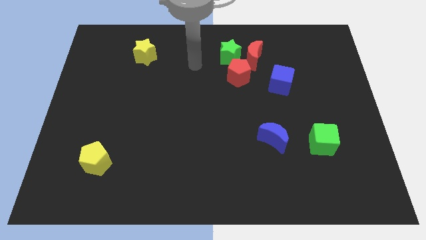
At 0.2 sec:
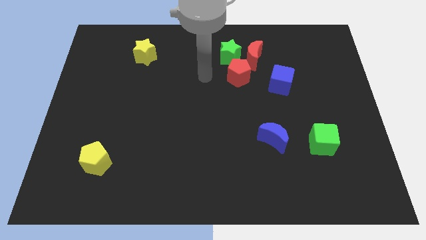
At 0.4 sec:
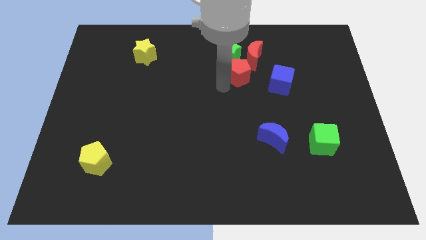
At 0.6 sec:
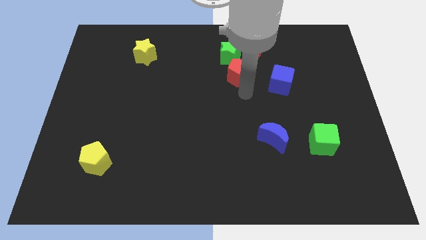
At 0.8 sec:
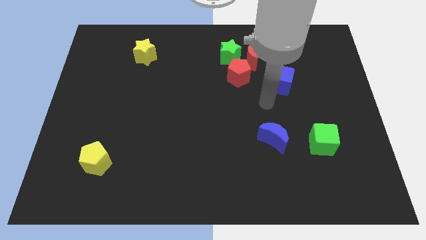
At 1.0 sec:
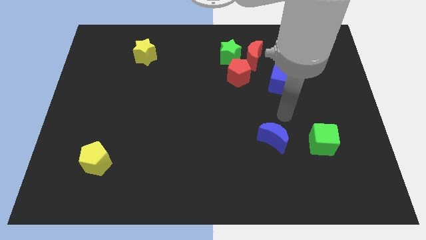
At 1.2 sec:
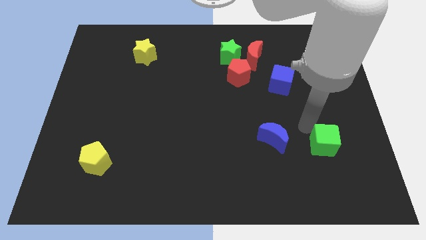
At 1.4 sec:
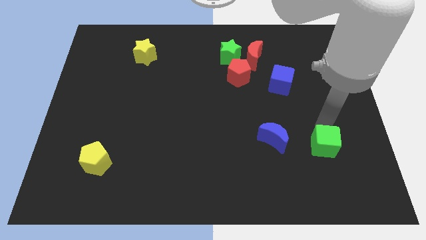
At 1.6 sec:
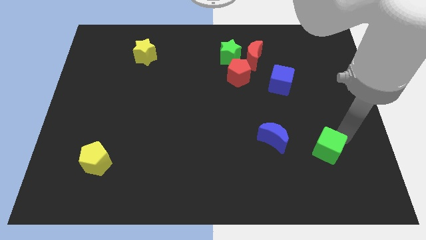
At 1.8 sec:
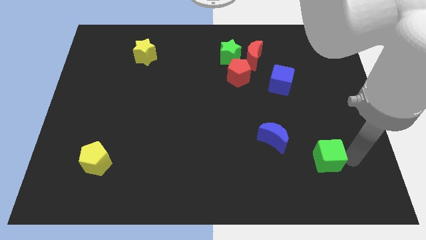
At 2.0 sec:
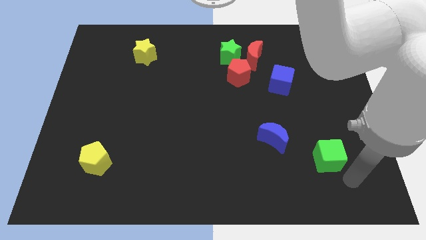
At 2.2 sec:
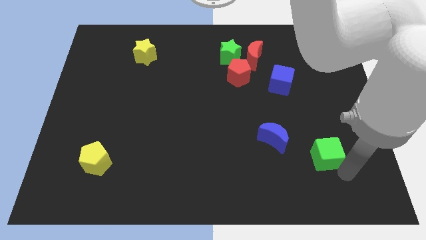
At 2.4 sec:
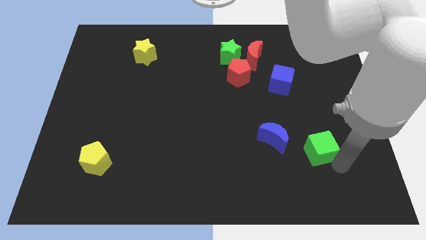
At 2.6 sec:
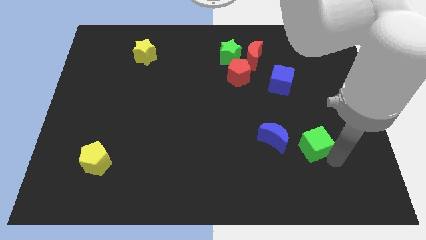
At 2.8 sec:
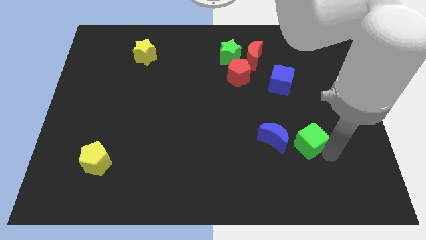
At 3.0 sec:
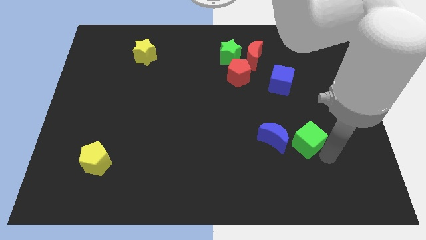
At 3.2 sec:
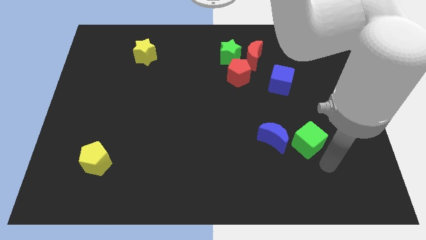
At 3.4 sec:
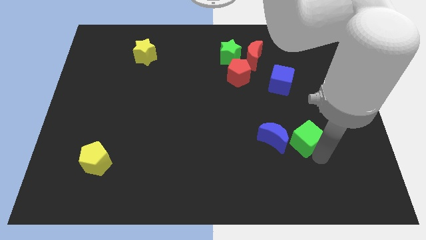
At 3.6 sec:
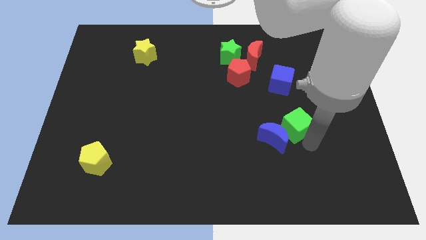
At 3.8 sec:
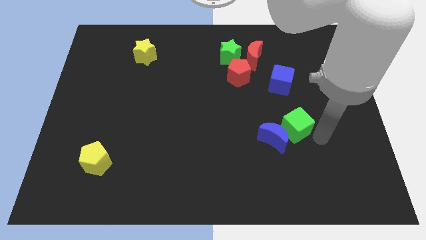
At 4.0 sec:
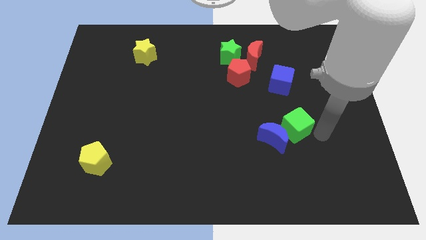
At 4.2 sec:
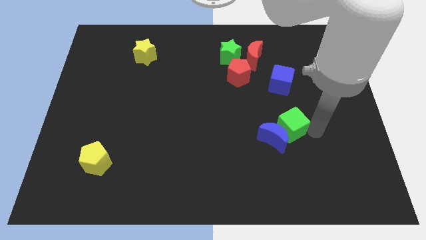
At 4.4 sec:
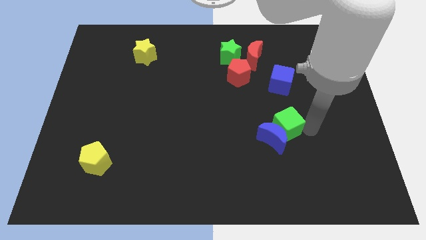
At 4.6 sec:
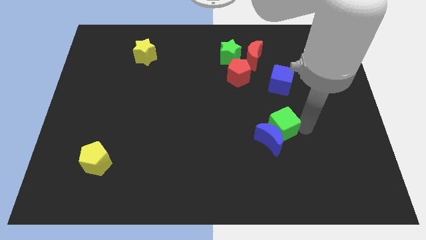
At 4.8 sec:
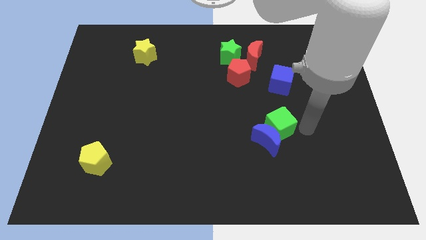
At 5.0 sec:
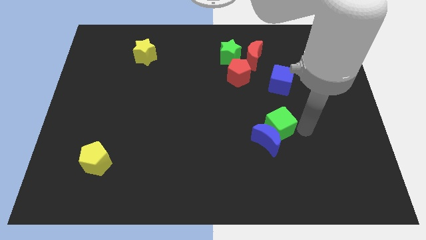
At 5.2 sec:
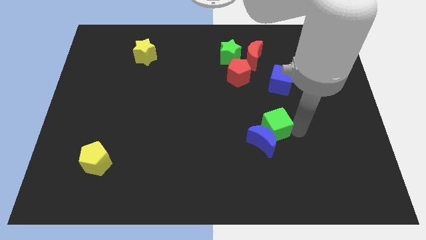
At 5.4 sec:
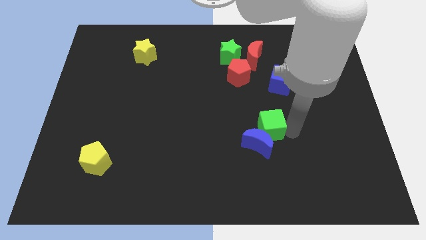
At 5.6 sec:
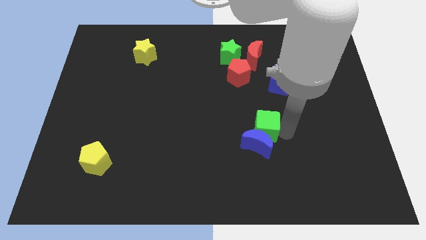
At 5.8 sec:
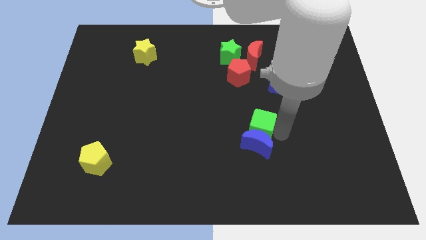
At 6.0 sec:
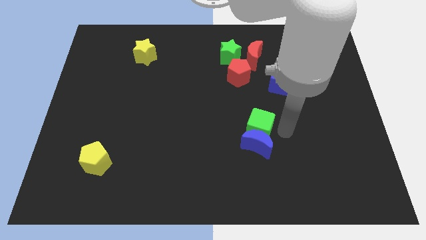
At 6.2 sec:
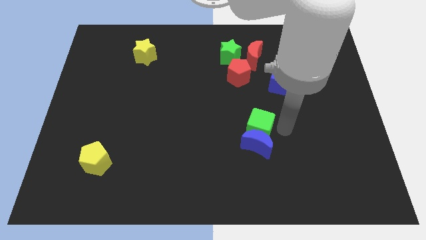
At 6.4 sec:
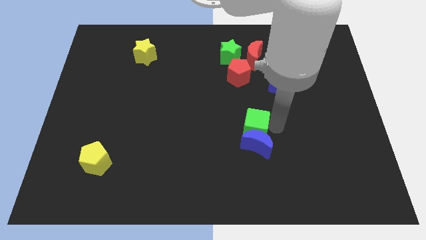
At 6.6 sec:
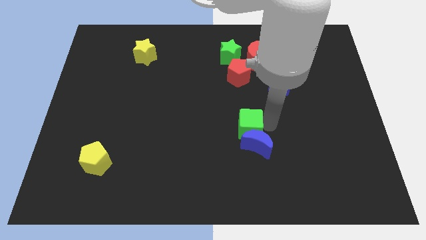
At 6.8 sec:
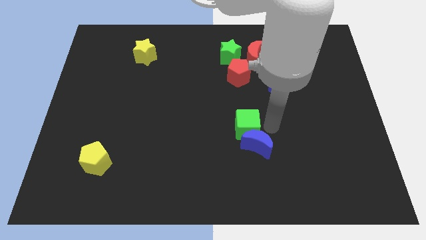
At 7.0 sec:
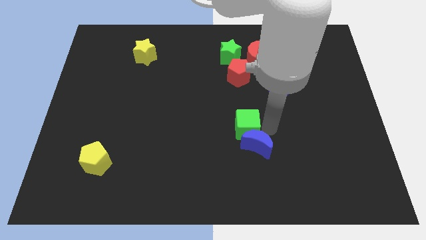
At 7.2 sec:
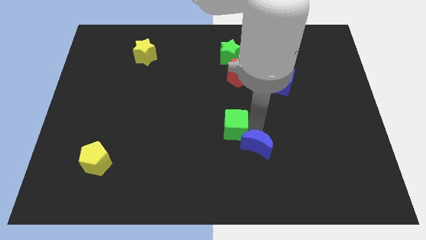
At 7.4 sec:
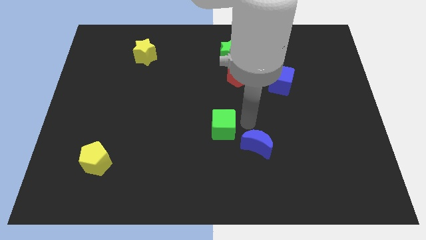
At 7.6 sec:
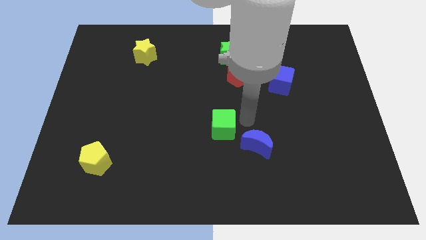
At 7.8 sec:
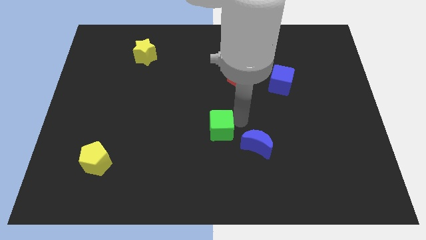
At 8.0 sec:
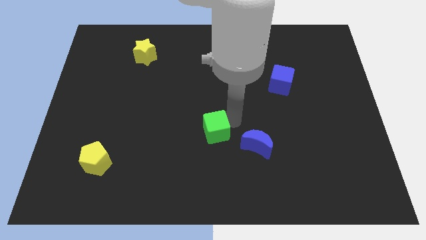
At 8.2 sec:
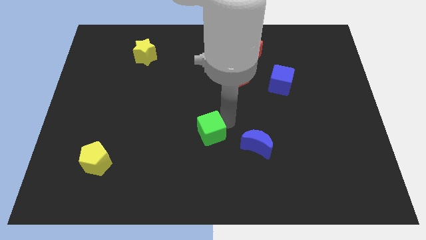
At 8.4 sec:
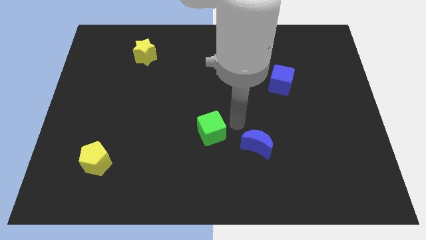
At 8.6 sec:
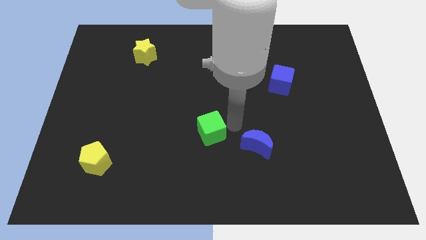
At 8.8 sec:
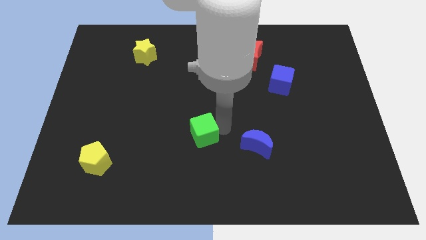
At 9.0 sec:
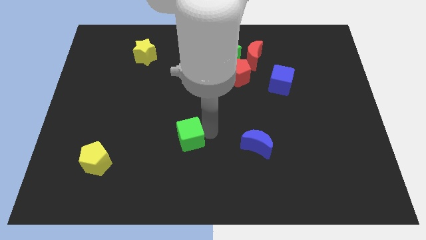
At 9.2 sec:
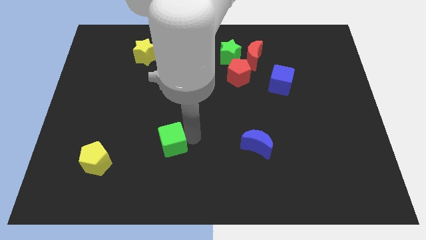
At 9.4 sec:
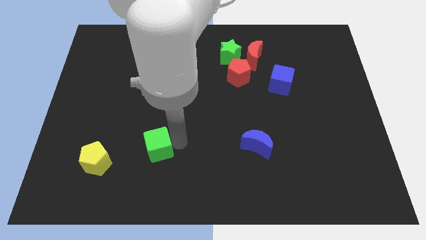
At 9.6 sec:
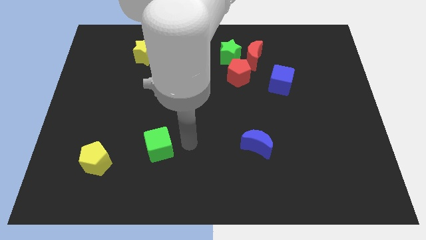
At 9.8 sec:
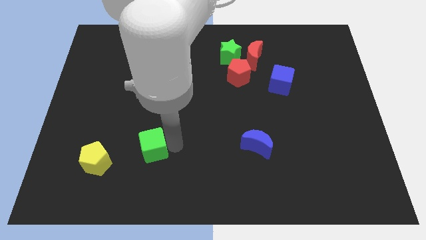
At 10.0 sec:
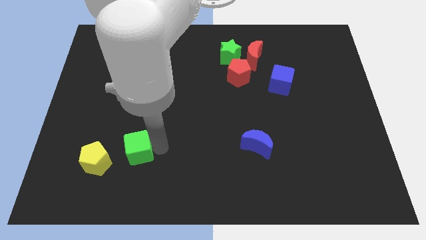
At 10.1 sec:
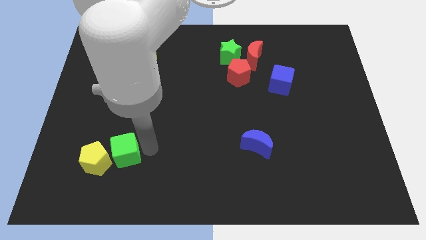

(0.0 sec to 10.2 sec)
put the green cube next to the yellow pentagon

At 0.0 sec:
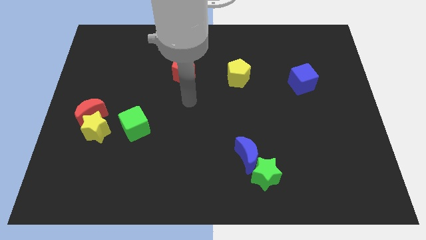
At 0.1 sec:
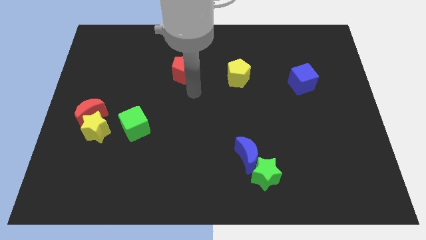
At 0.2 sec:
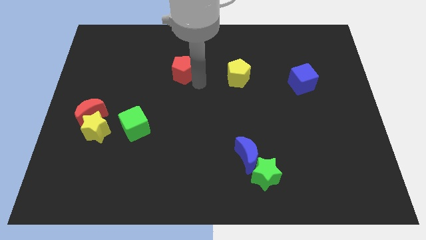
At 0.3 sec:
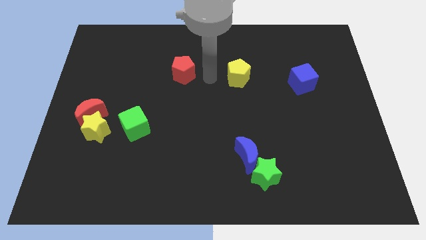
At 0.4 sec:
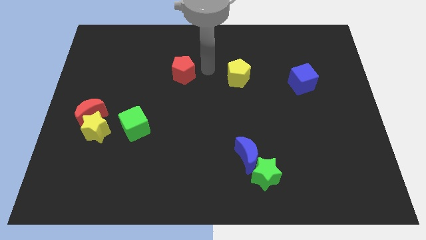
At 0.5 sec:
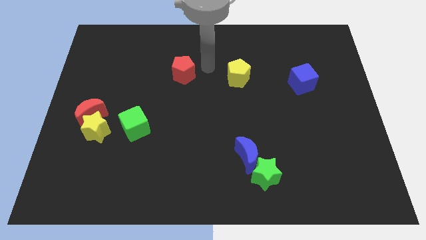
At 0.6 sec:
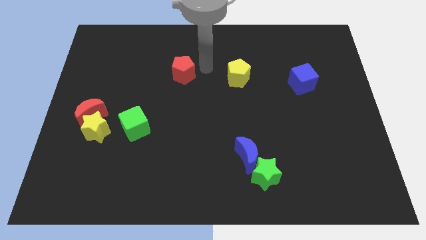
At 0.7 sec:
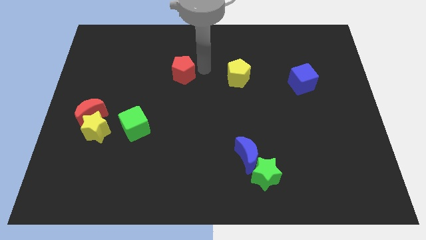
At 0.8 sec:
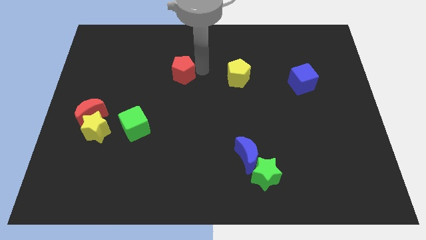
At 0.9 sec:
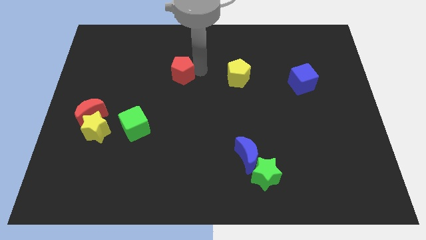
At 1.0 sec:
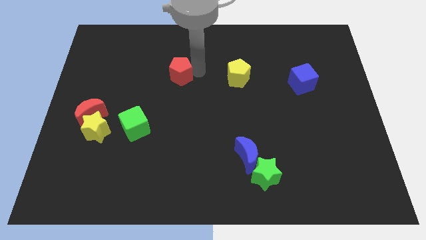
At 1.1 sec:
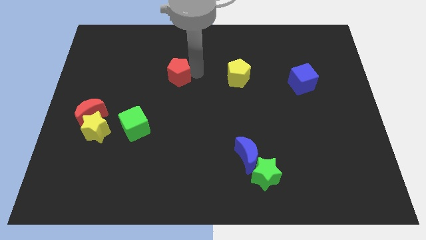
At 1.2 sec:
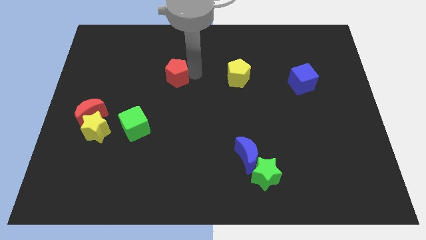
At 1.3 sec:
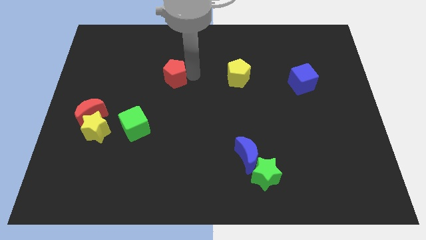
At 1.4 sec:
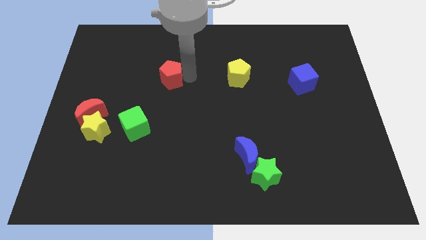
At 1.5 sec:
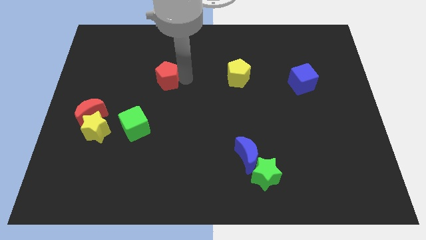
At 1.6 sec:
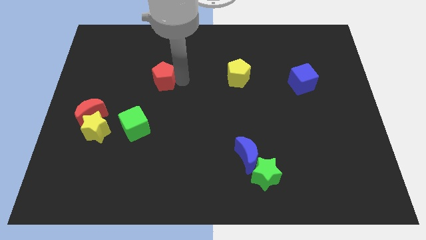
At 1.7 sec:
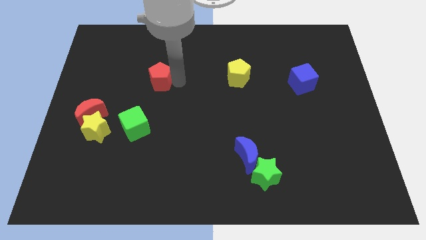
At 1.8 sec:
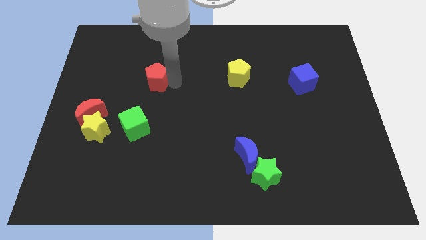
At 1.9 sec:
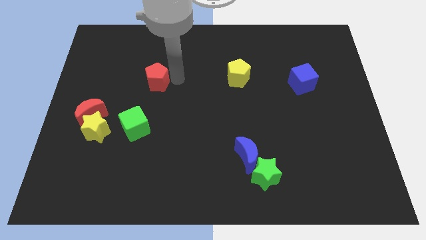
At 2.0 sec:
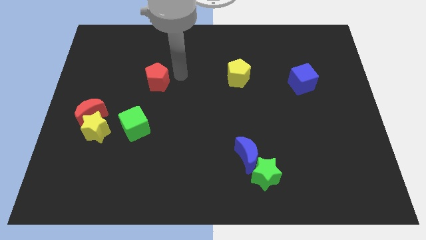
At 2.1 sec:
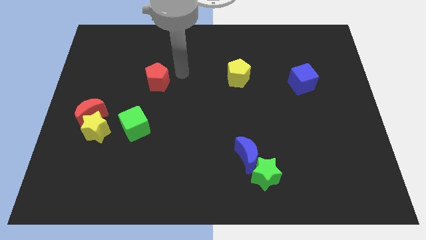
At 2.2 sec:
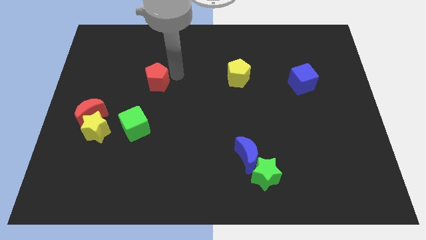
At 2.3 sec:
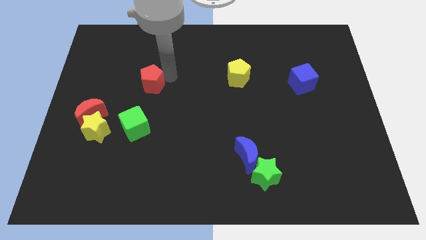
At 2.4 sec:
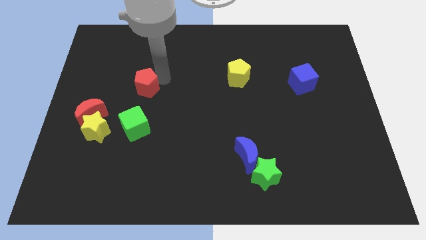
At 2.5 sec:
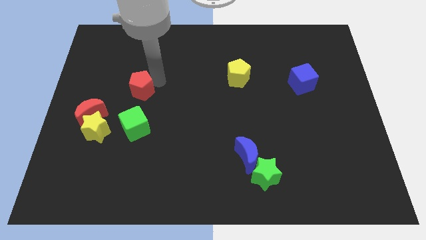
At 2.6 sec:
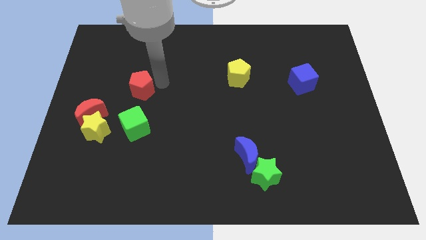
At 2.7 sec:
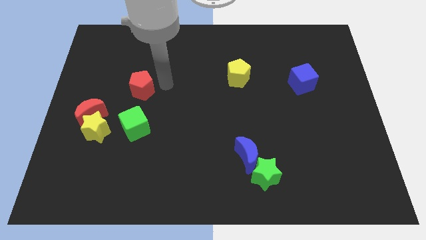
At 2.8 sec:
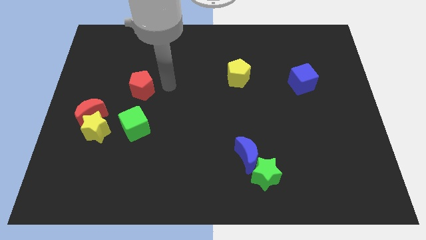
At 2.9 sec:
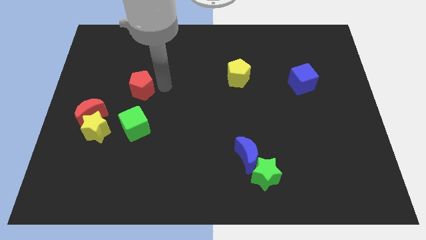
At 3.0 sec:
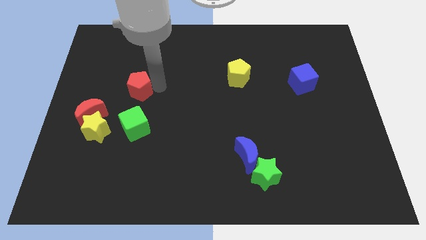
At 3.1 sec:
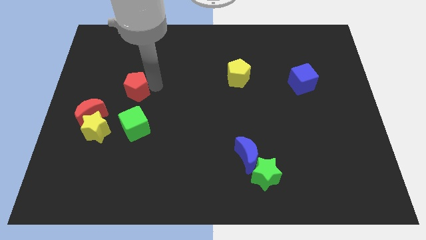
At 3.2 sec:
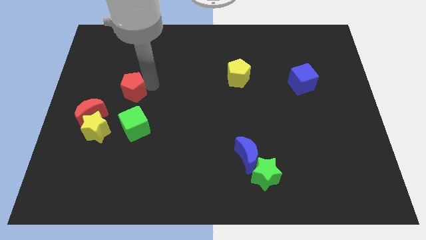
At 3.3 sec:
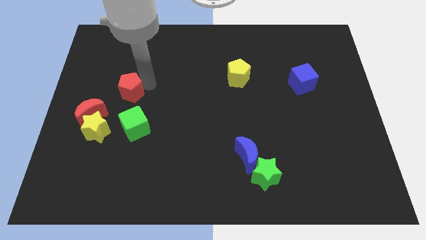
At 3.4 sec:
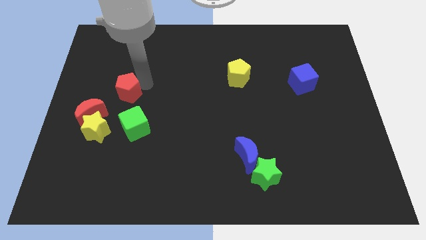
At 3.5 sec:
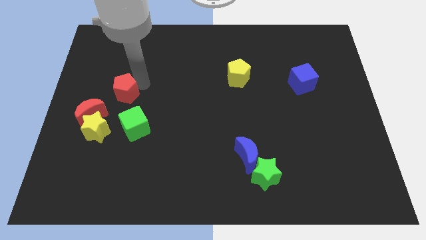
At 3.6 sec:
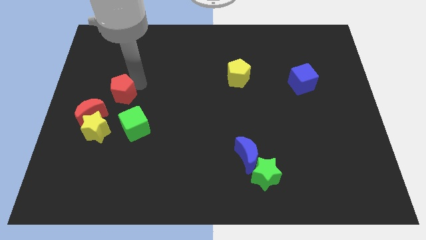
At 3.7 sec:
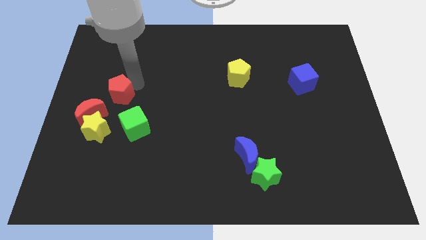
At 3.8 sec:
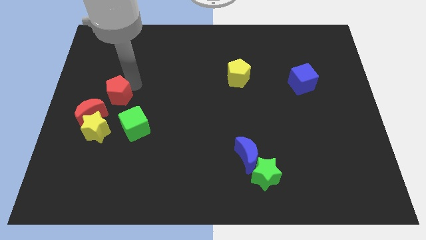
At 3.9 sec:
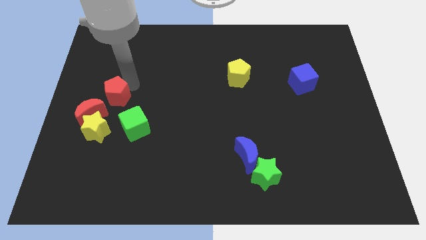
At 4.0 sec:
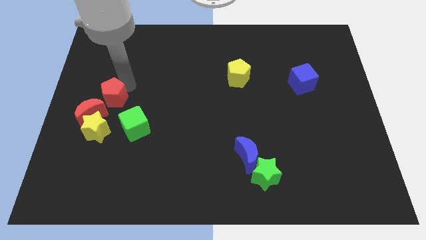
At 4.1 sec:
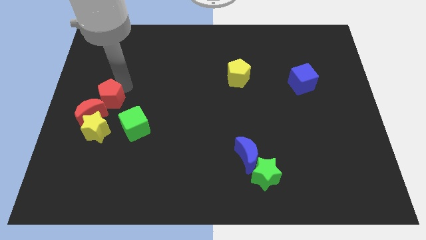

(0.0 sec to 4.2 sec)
slide the red pentagon close to the red moon
